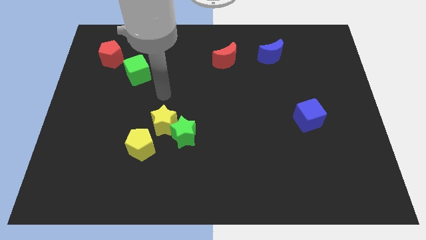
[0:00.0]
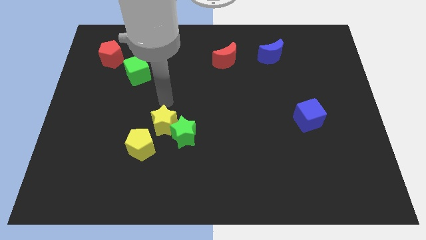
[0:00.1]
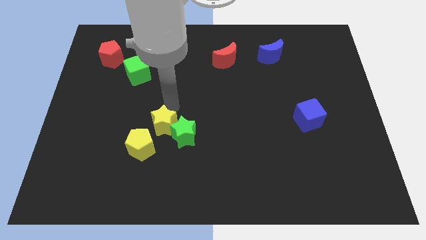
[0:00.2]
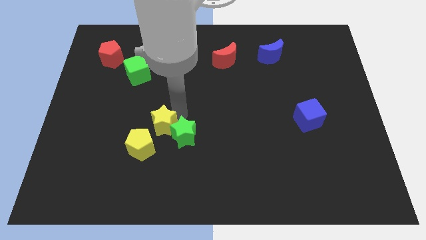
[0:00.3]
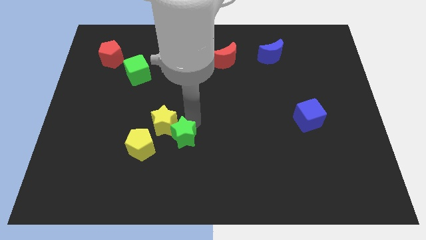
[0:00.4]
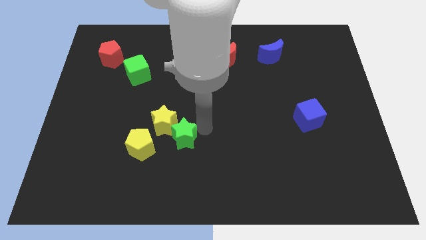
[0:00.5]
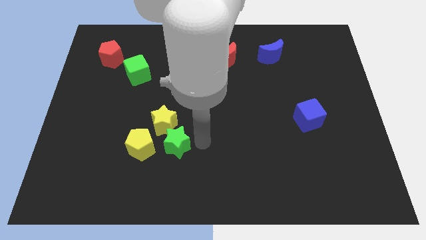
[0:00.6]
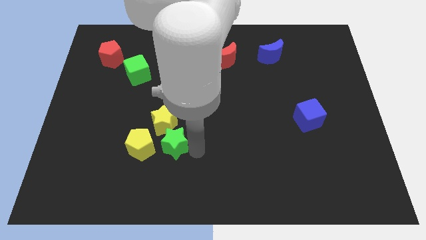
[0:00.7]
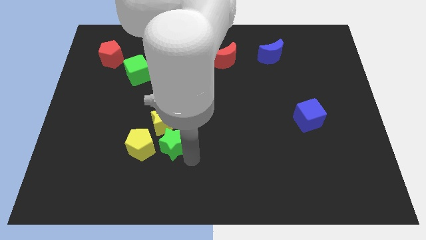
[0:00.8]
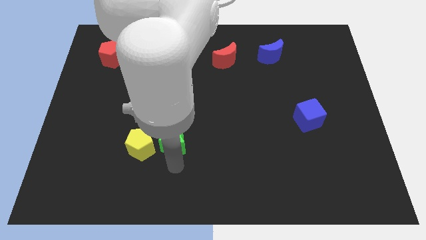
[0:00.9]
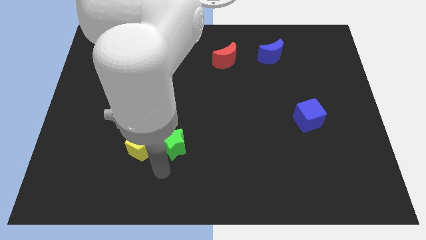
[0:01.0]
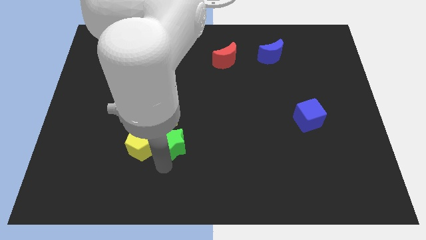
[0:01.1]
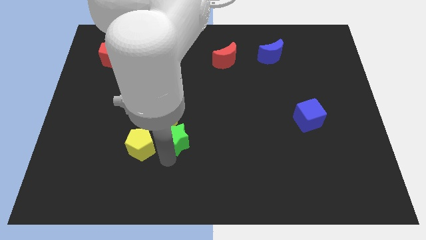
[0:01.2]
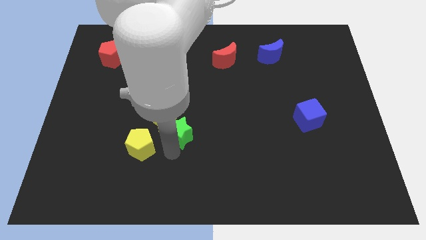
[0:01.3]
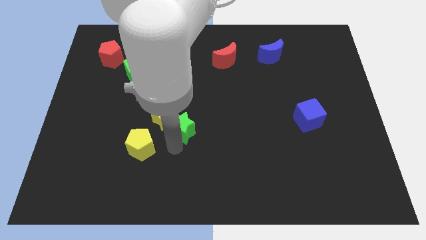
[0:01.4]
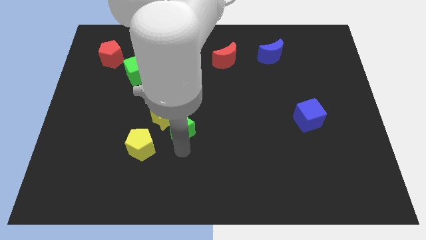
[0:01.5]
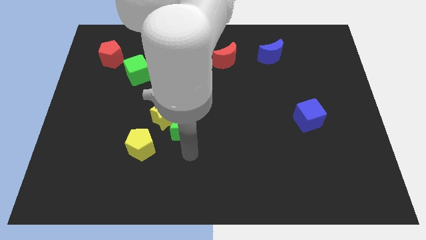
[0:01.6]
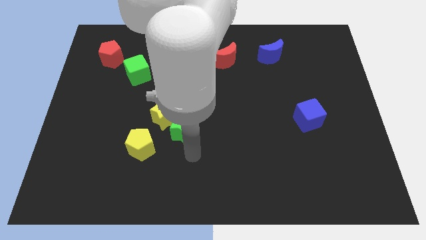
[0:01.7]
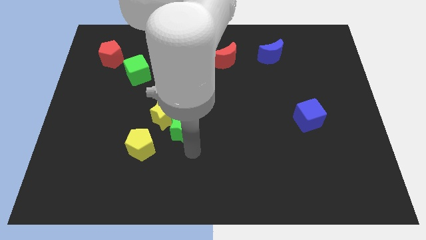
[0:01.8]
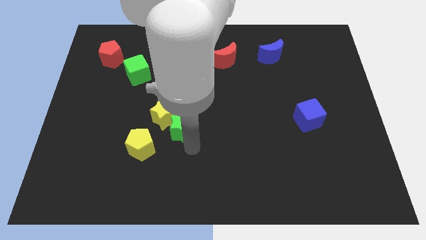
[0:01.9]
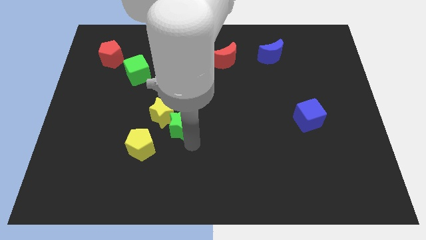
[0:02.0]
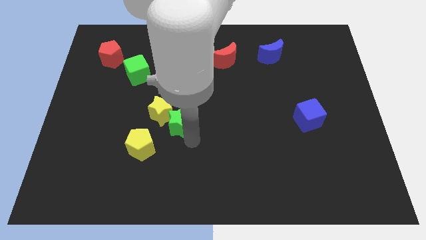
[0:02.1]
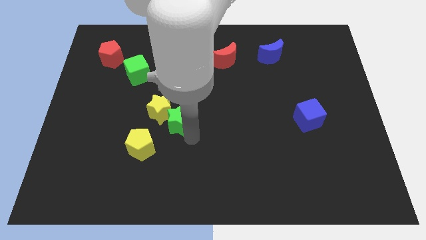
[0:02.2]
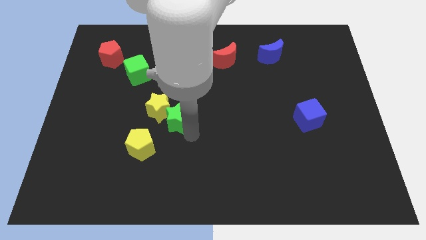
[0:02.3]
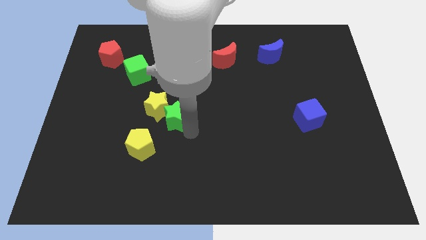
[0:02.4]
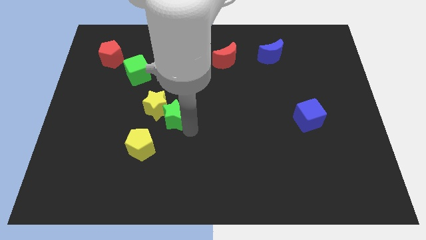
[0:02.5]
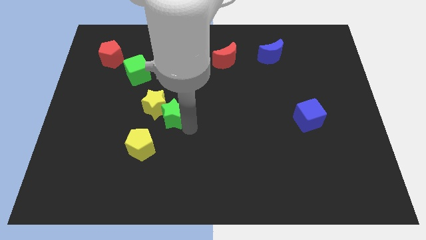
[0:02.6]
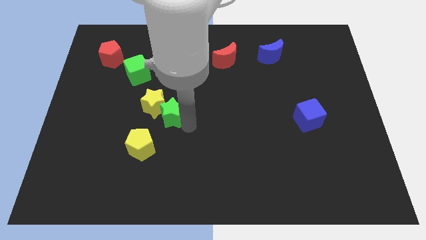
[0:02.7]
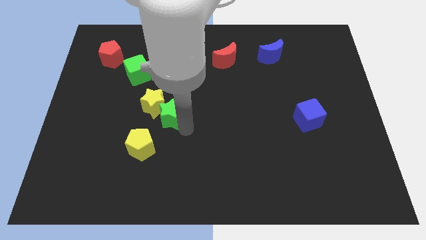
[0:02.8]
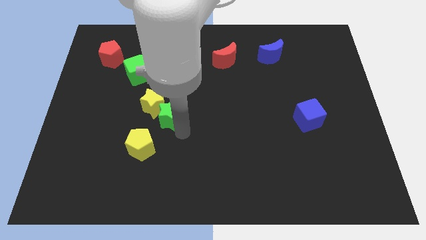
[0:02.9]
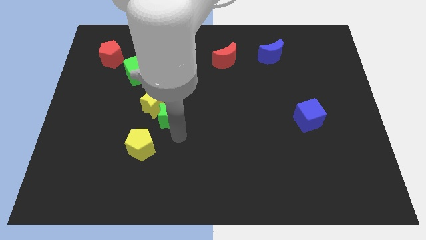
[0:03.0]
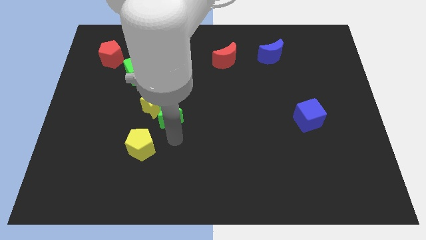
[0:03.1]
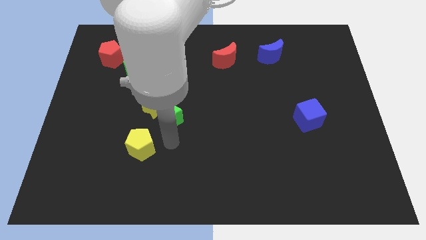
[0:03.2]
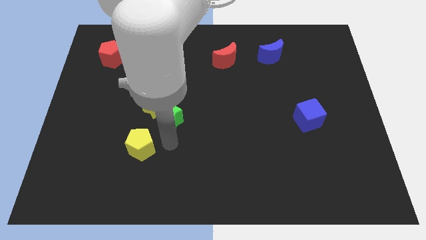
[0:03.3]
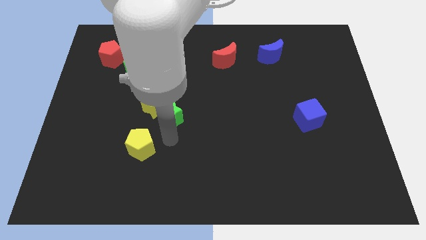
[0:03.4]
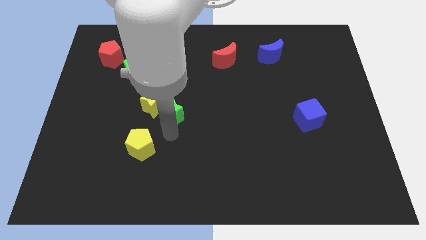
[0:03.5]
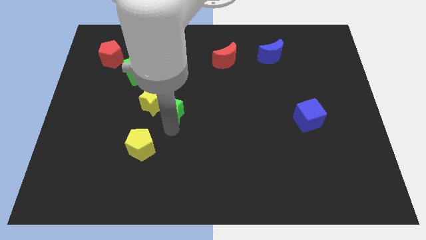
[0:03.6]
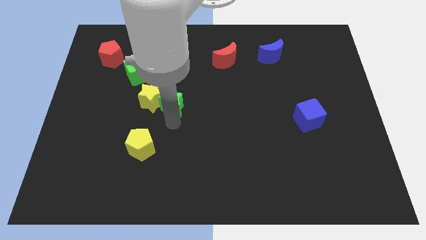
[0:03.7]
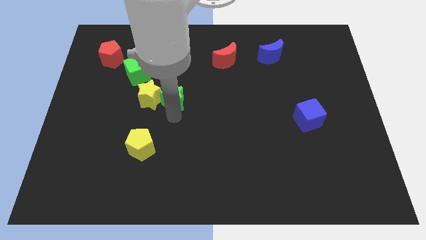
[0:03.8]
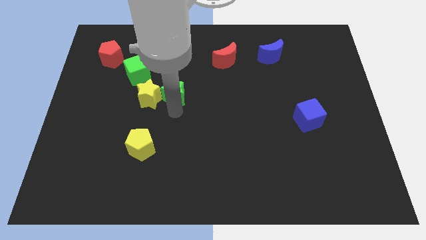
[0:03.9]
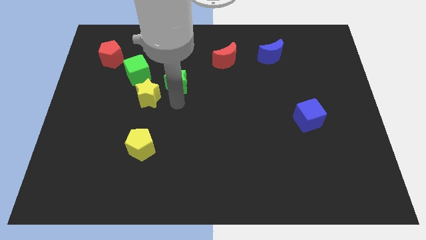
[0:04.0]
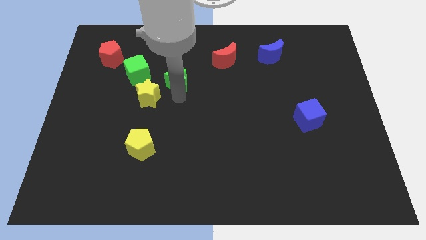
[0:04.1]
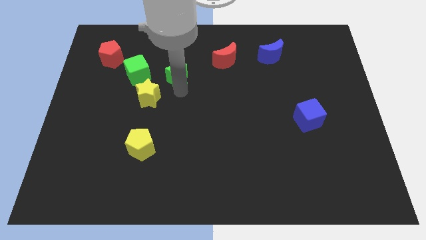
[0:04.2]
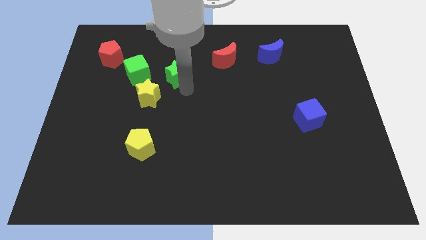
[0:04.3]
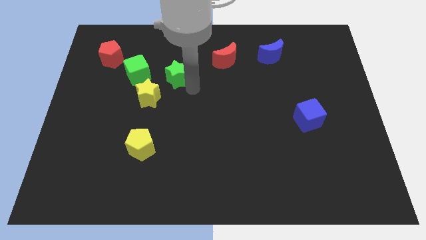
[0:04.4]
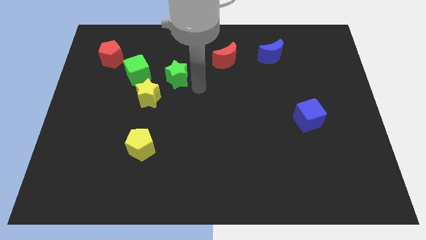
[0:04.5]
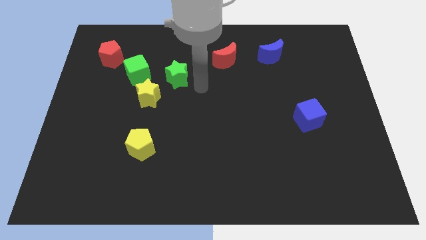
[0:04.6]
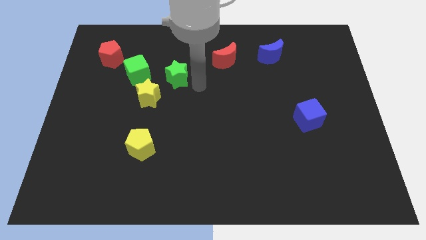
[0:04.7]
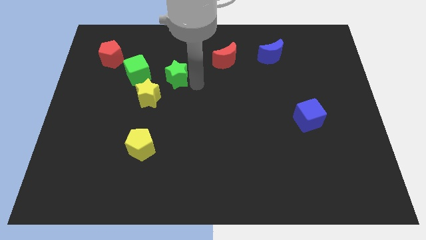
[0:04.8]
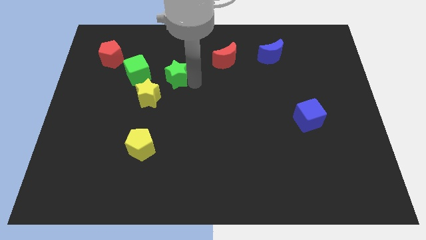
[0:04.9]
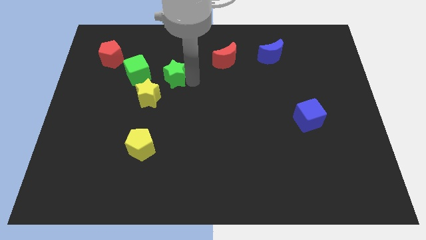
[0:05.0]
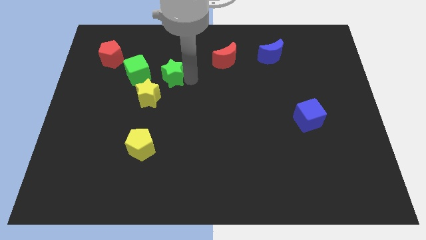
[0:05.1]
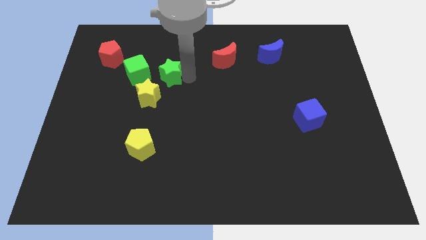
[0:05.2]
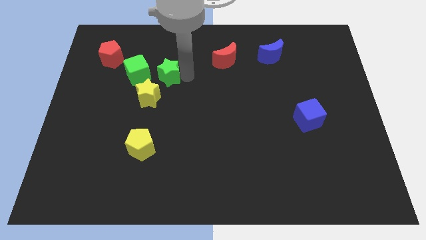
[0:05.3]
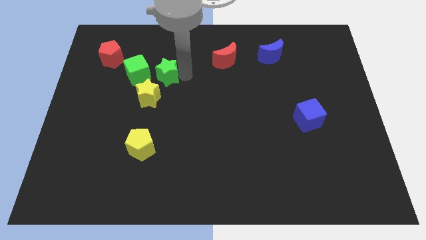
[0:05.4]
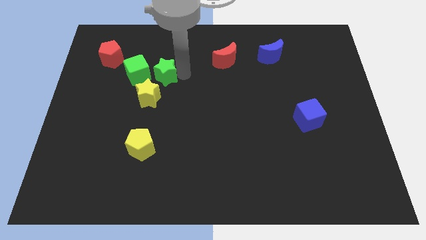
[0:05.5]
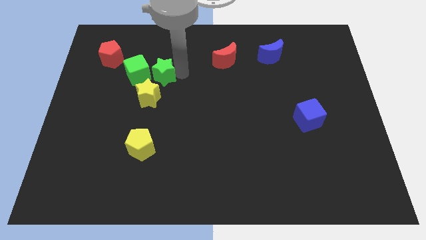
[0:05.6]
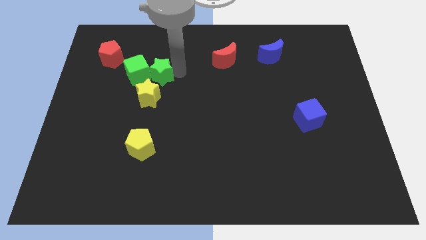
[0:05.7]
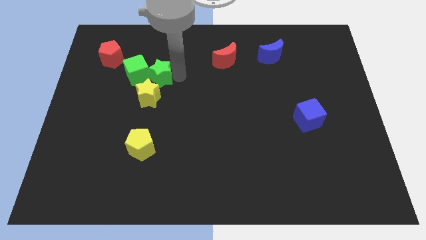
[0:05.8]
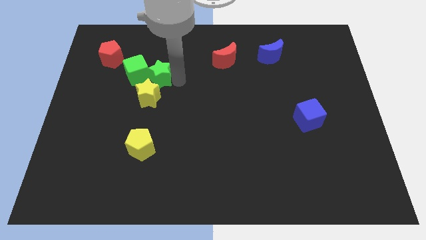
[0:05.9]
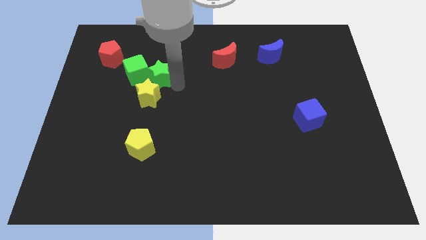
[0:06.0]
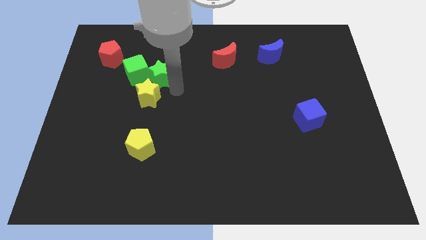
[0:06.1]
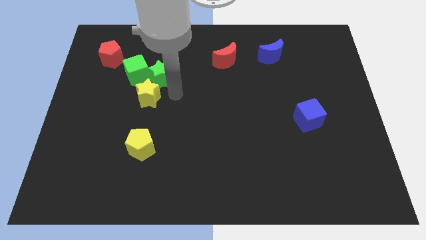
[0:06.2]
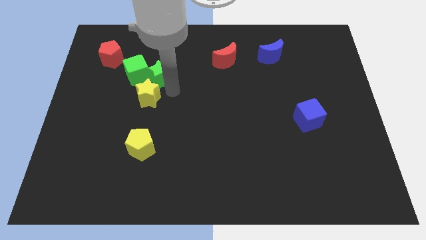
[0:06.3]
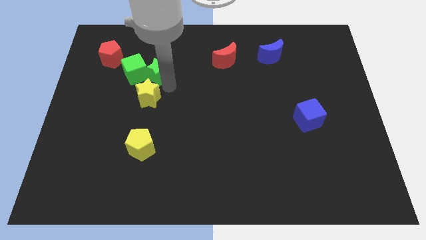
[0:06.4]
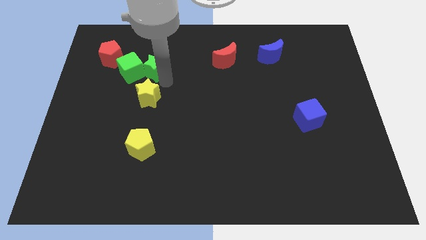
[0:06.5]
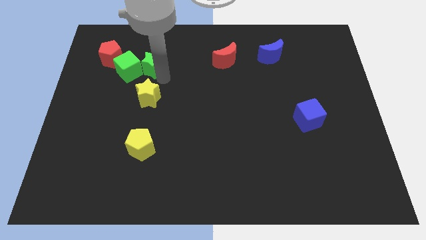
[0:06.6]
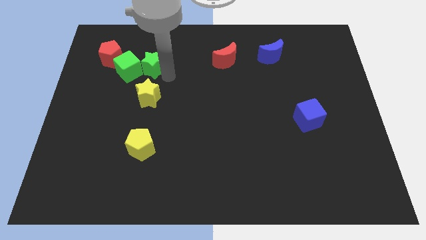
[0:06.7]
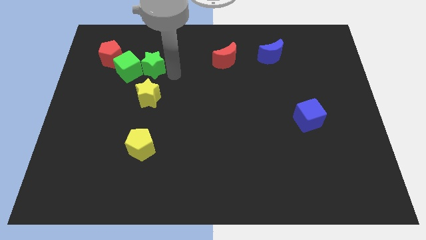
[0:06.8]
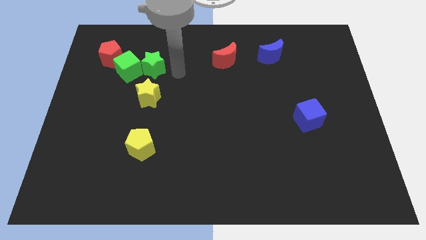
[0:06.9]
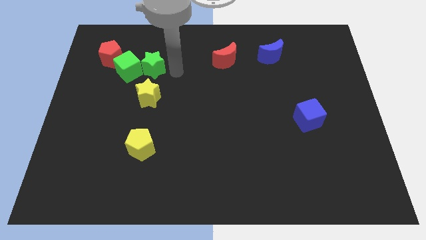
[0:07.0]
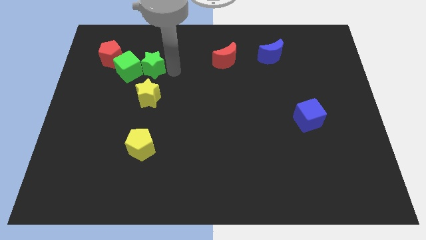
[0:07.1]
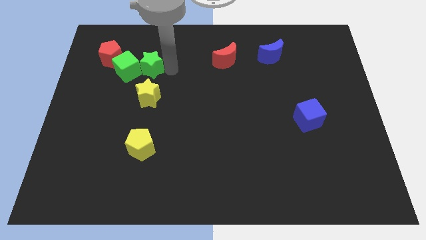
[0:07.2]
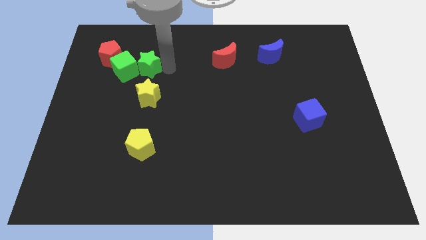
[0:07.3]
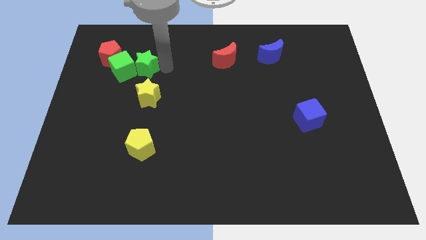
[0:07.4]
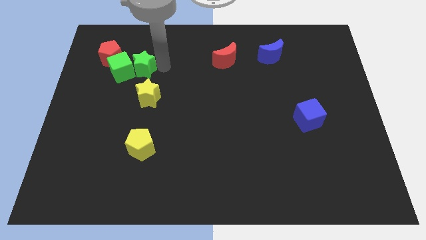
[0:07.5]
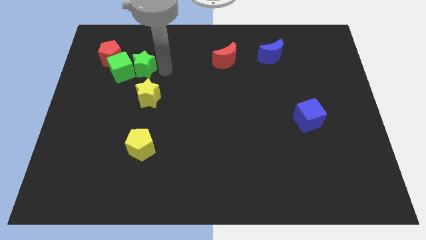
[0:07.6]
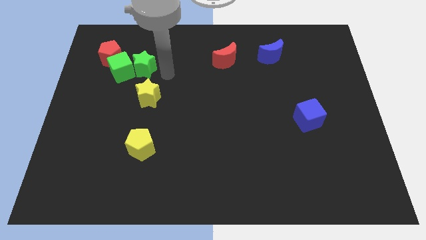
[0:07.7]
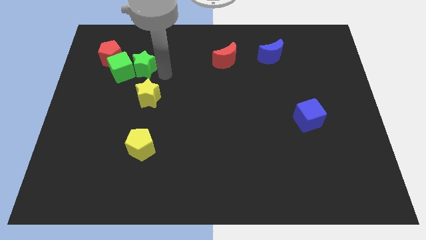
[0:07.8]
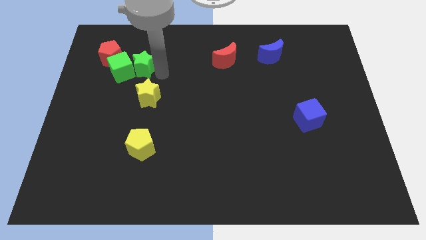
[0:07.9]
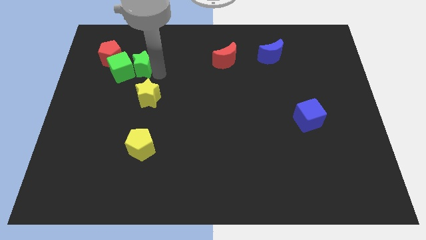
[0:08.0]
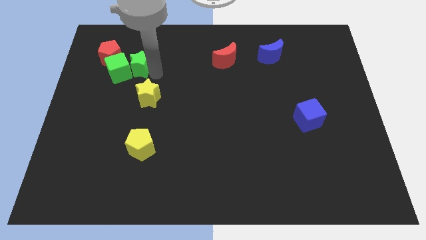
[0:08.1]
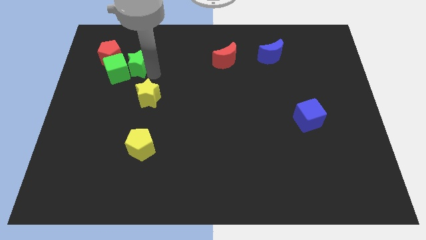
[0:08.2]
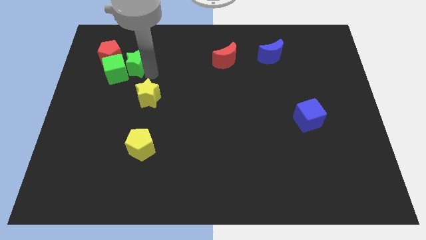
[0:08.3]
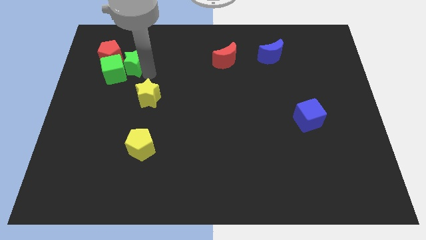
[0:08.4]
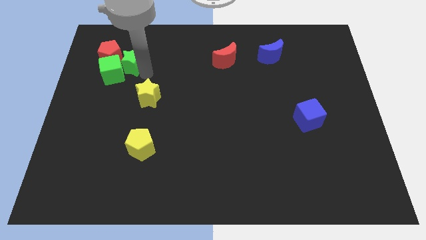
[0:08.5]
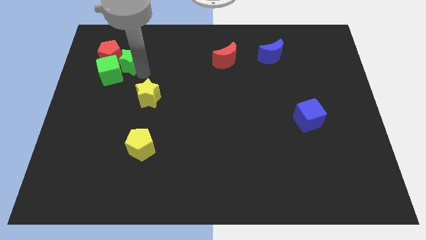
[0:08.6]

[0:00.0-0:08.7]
move the green star to the red pentagon
